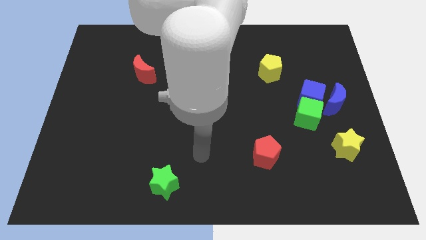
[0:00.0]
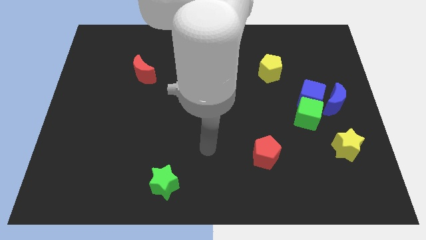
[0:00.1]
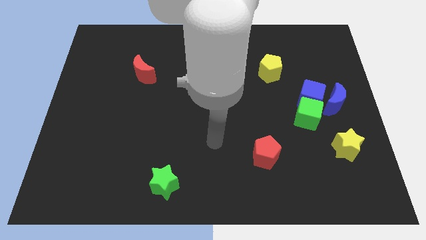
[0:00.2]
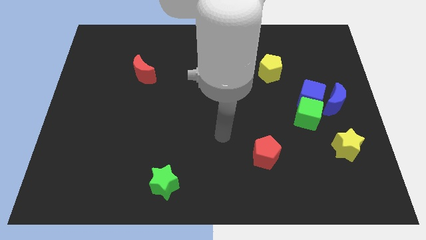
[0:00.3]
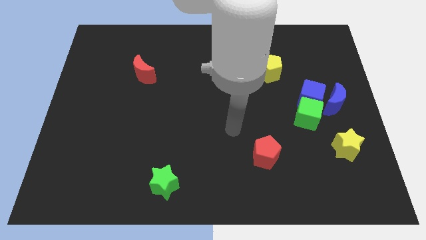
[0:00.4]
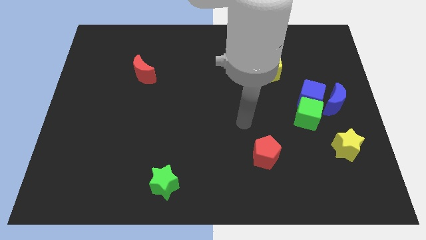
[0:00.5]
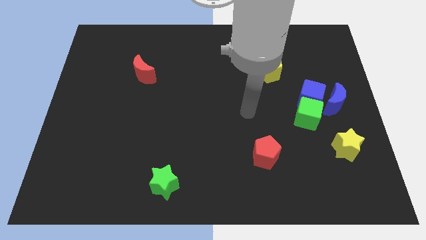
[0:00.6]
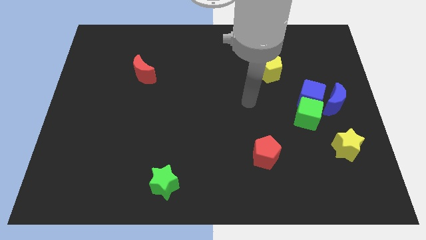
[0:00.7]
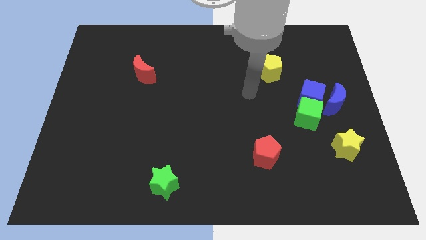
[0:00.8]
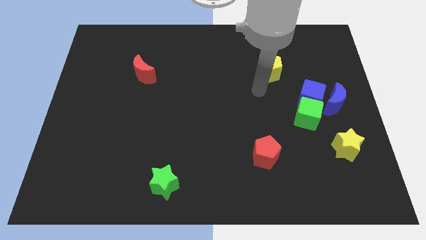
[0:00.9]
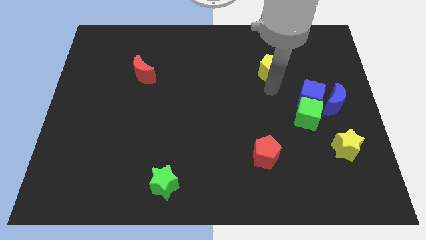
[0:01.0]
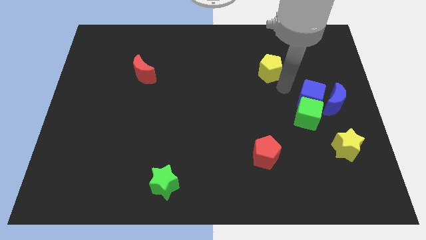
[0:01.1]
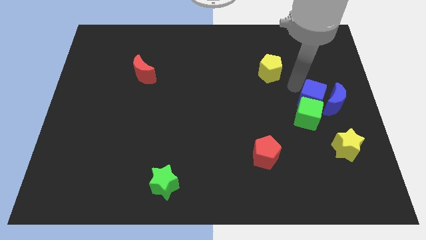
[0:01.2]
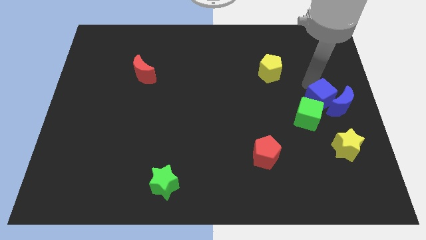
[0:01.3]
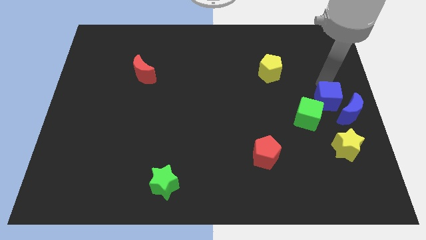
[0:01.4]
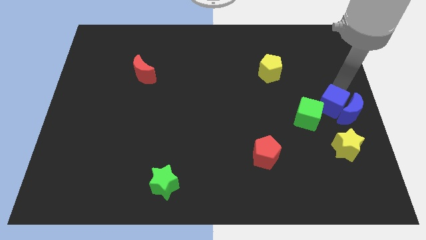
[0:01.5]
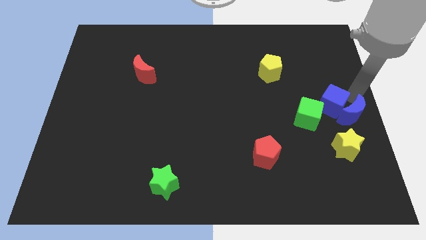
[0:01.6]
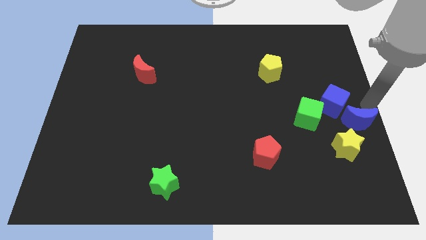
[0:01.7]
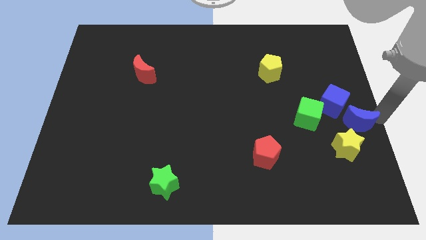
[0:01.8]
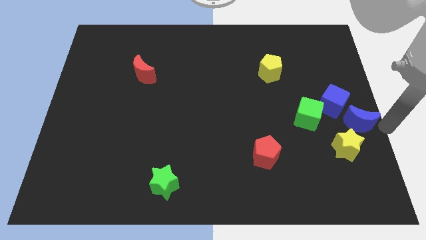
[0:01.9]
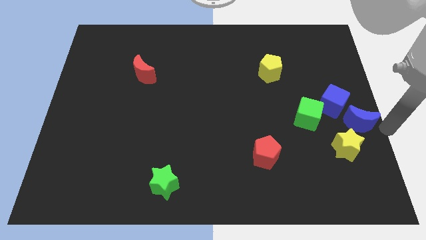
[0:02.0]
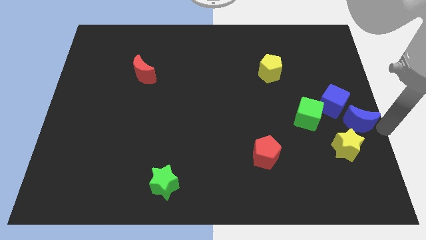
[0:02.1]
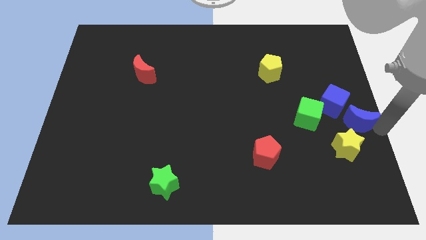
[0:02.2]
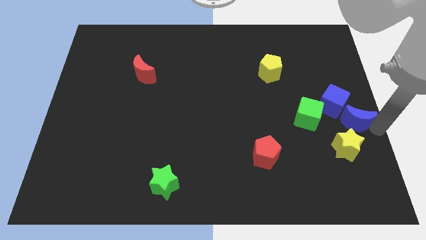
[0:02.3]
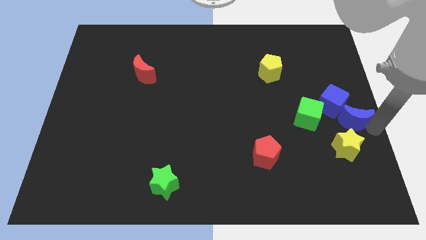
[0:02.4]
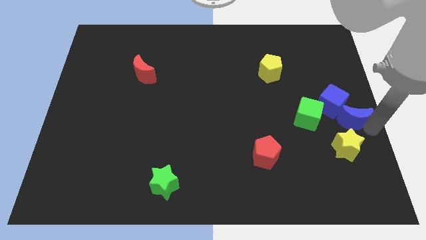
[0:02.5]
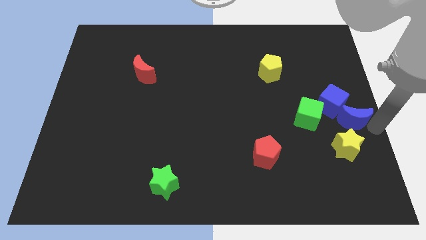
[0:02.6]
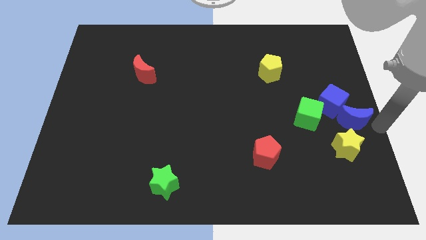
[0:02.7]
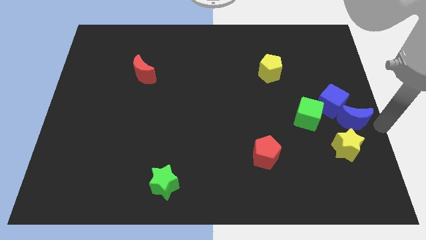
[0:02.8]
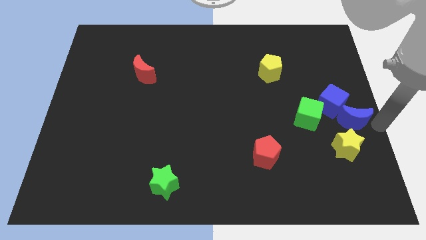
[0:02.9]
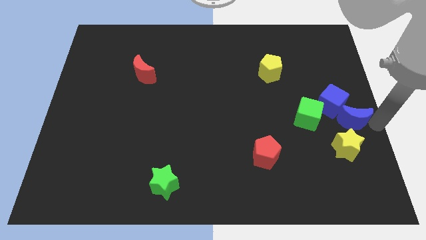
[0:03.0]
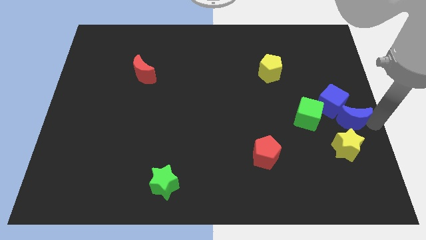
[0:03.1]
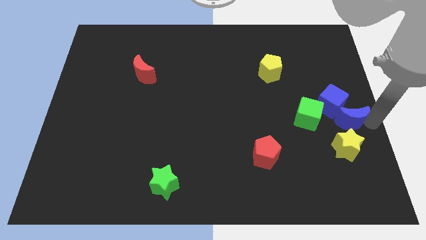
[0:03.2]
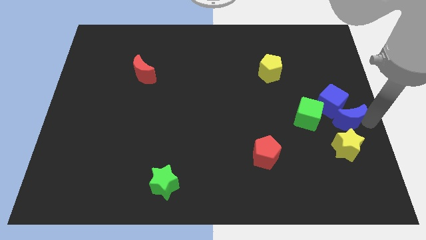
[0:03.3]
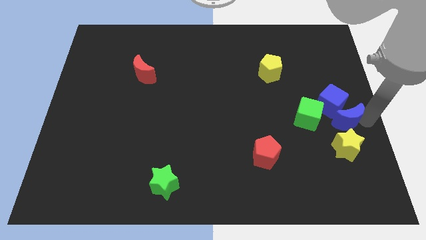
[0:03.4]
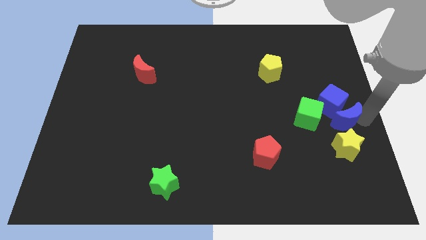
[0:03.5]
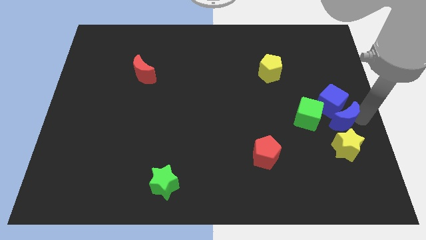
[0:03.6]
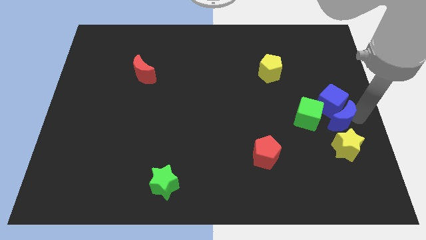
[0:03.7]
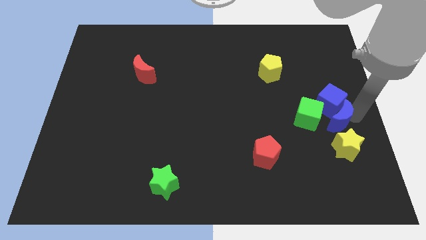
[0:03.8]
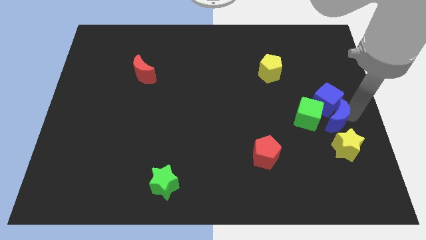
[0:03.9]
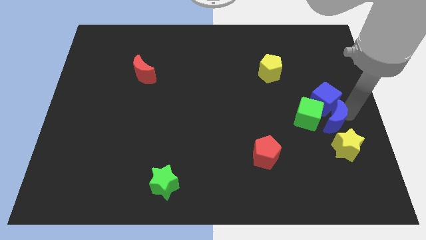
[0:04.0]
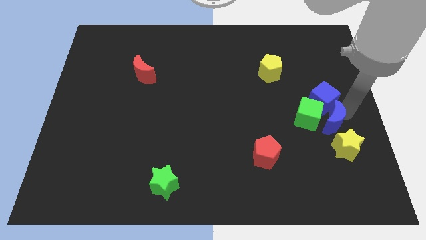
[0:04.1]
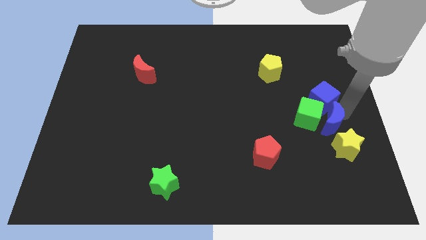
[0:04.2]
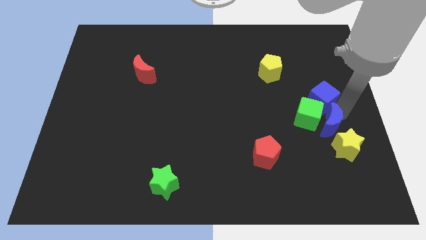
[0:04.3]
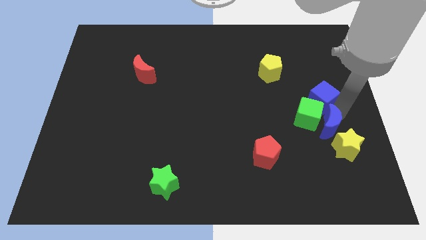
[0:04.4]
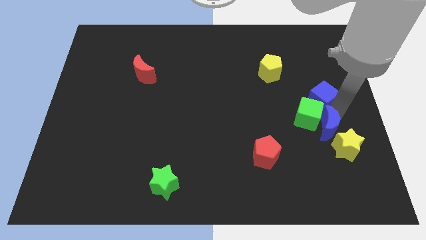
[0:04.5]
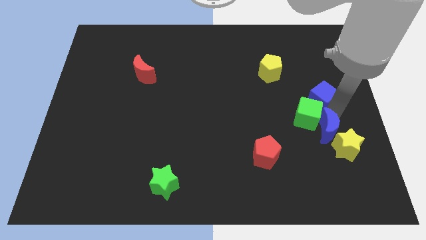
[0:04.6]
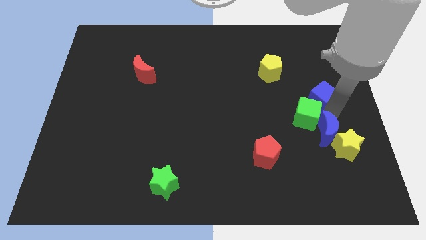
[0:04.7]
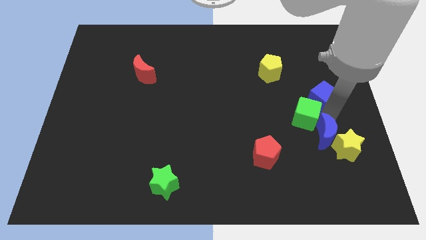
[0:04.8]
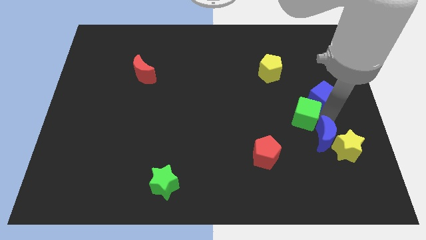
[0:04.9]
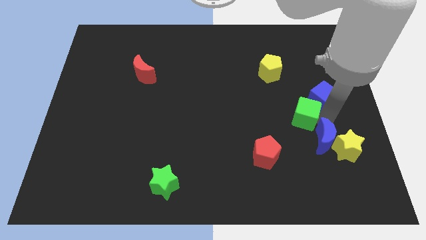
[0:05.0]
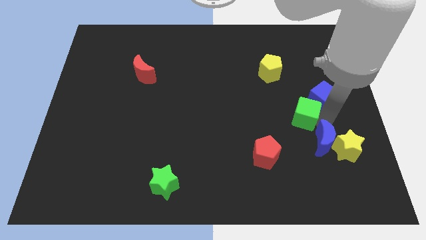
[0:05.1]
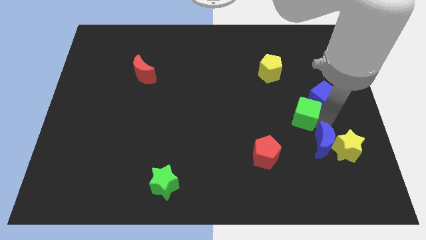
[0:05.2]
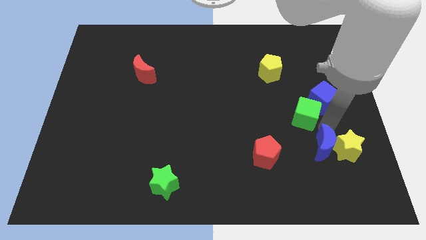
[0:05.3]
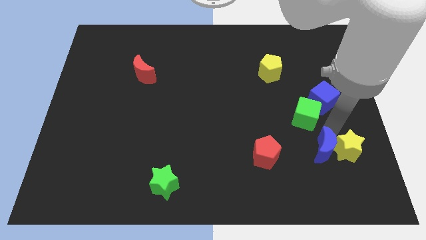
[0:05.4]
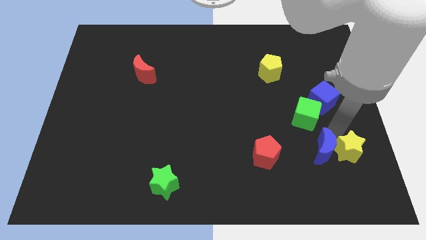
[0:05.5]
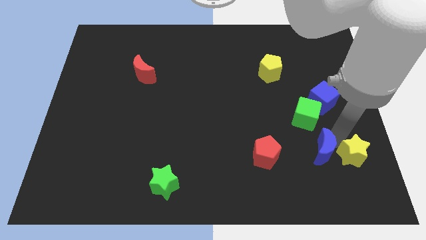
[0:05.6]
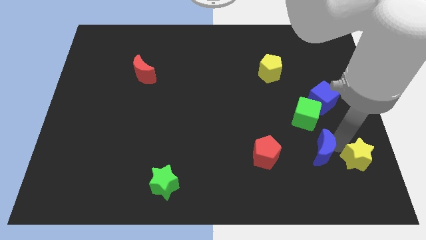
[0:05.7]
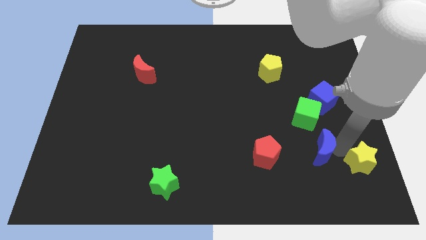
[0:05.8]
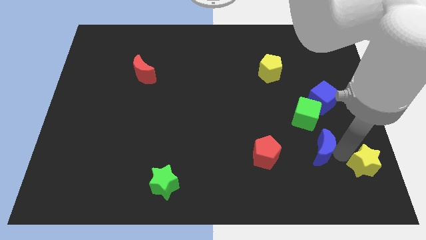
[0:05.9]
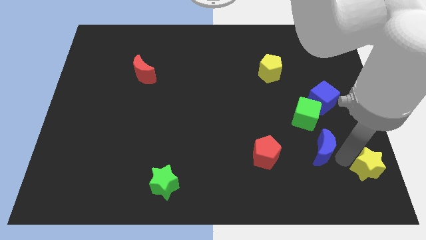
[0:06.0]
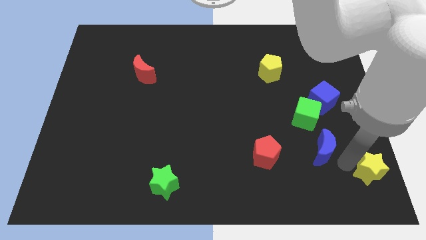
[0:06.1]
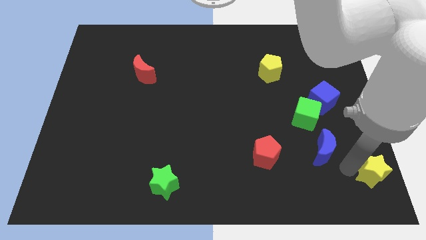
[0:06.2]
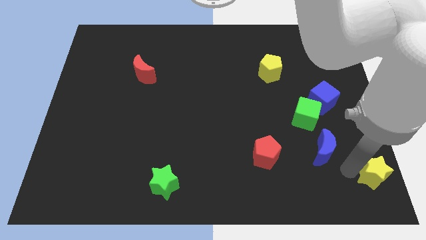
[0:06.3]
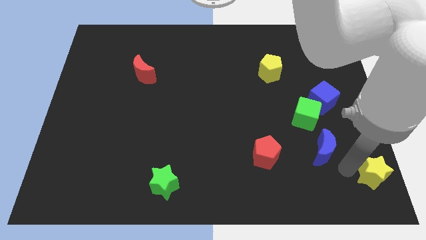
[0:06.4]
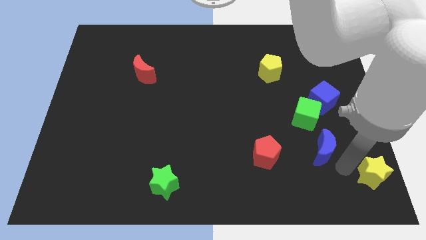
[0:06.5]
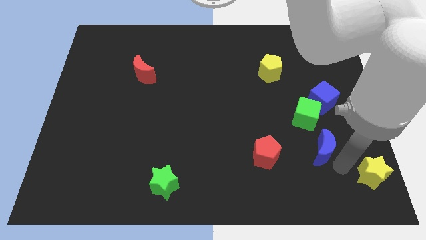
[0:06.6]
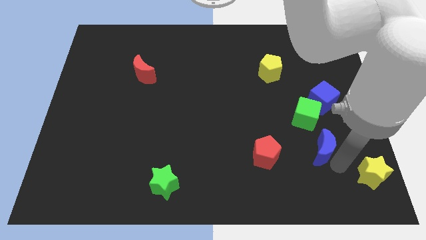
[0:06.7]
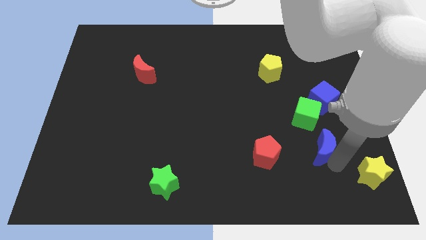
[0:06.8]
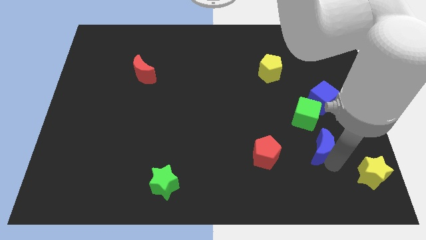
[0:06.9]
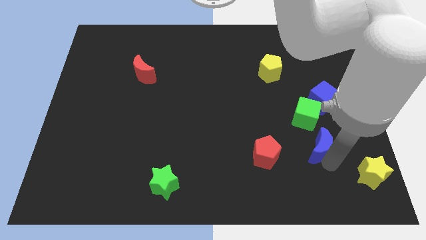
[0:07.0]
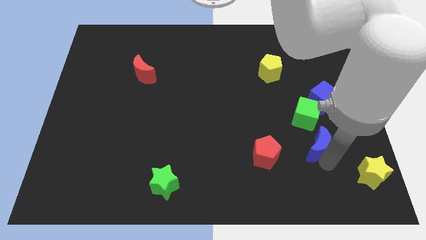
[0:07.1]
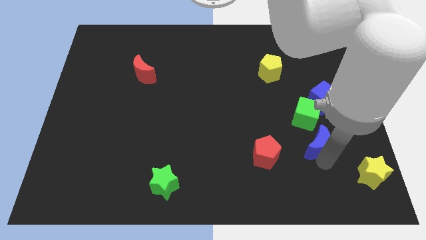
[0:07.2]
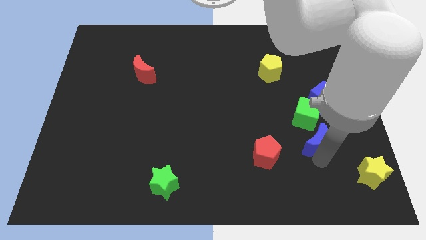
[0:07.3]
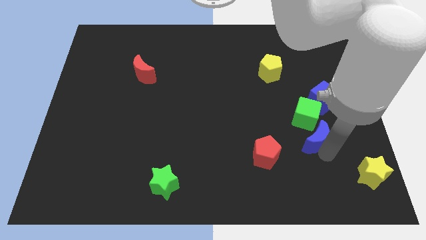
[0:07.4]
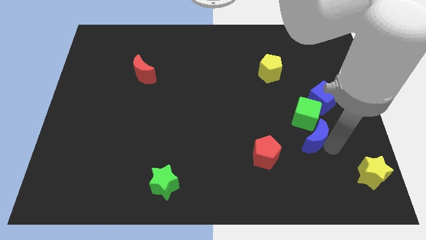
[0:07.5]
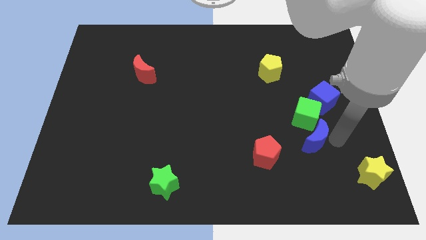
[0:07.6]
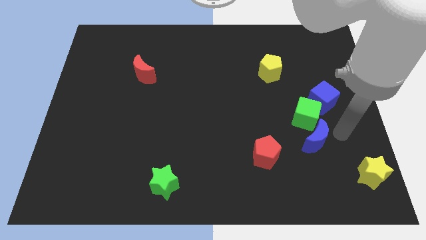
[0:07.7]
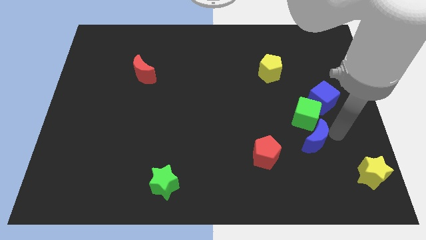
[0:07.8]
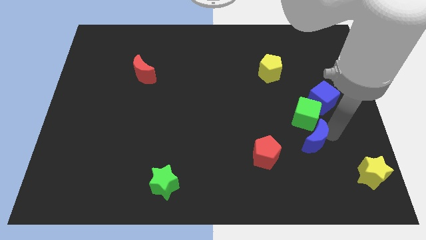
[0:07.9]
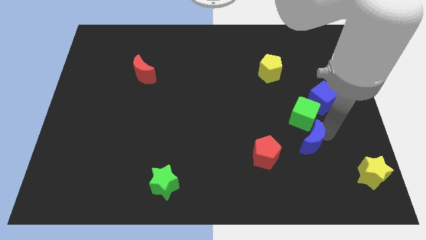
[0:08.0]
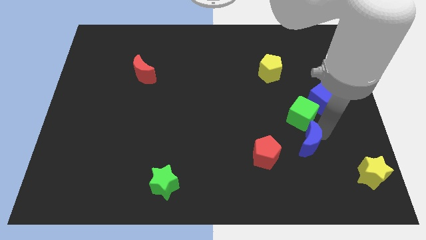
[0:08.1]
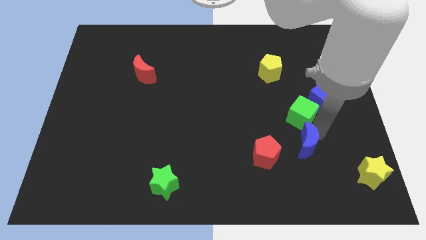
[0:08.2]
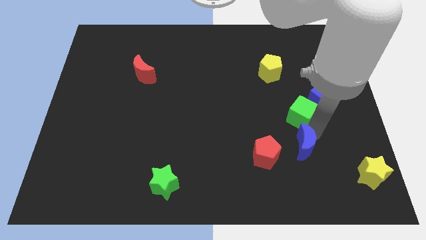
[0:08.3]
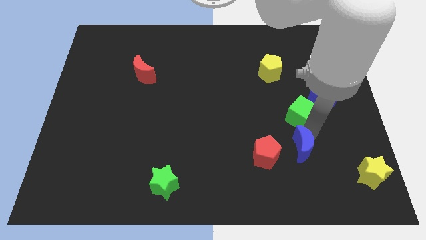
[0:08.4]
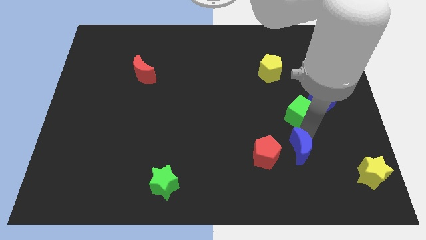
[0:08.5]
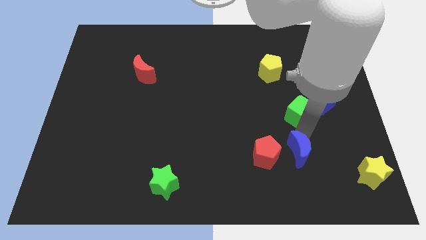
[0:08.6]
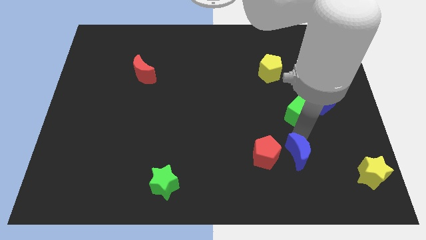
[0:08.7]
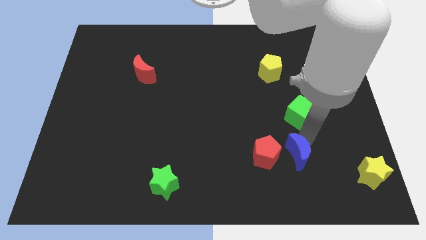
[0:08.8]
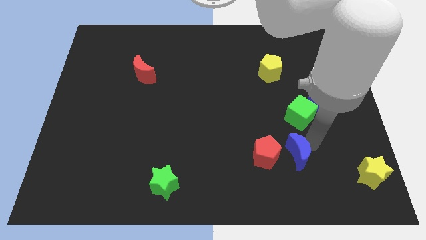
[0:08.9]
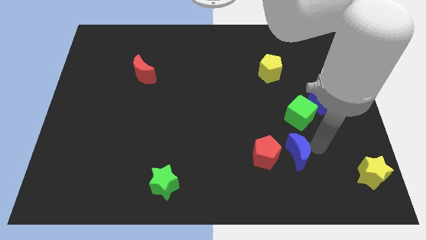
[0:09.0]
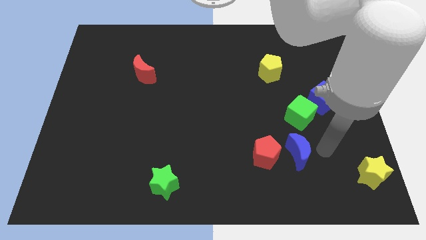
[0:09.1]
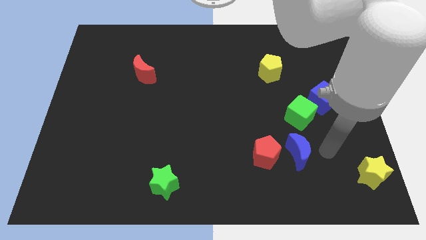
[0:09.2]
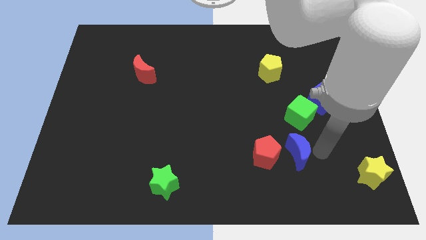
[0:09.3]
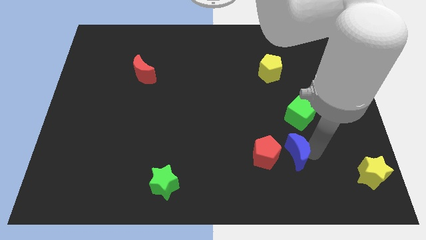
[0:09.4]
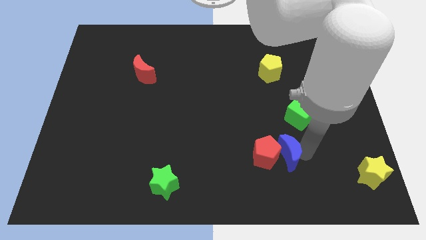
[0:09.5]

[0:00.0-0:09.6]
push the blue moon next to the red pentagon
